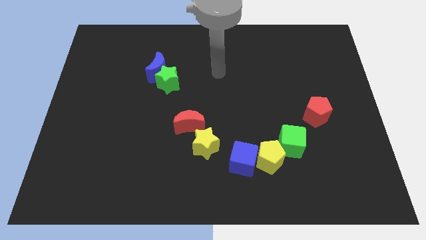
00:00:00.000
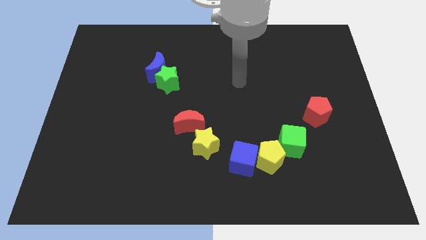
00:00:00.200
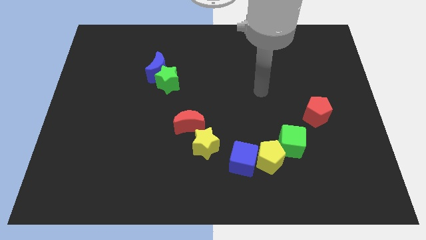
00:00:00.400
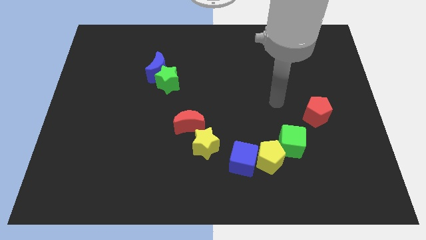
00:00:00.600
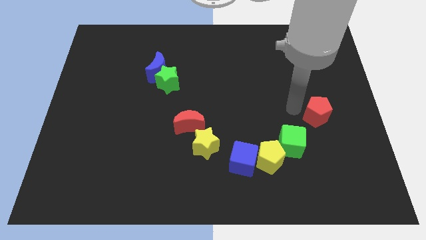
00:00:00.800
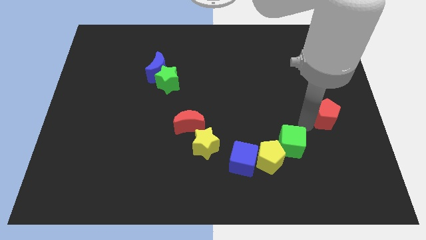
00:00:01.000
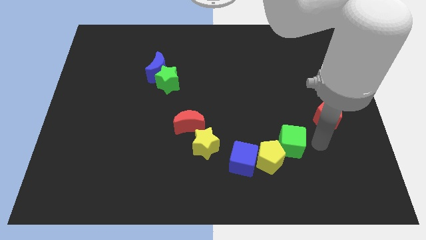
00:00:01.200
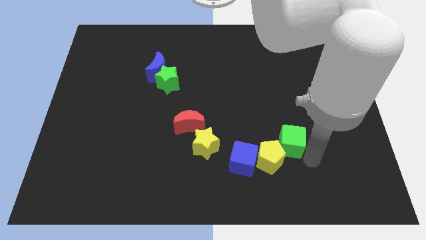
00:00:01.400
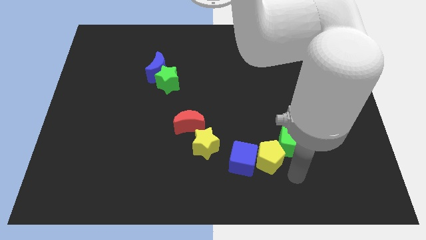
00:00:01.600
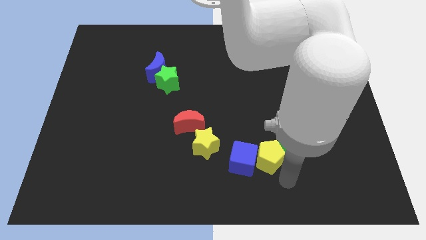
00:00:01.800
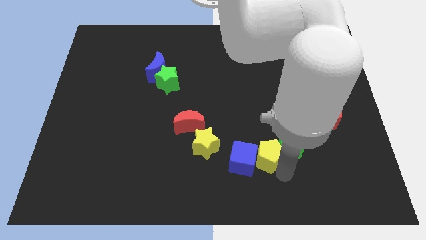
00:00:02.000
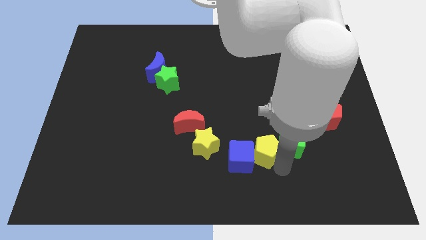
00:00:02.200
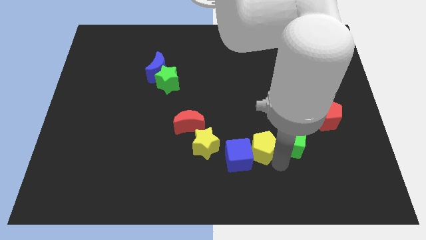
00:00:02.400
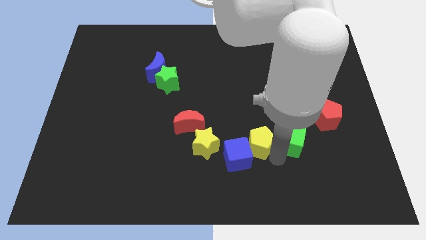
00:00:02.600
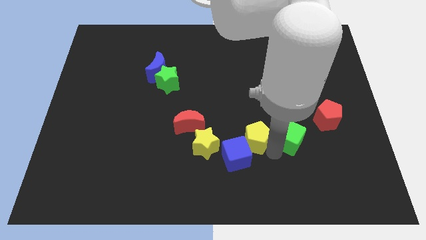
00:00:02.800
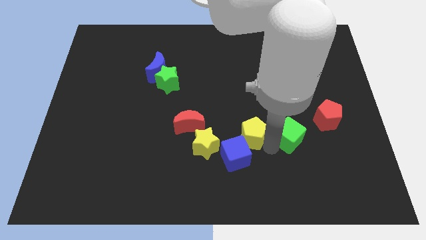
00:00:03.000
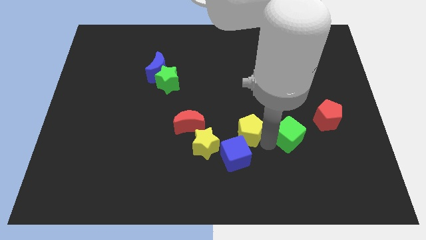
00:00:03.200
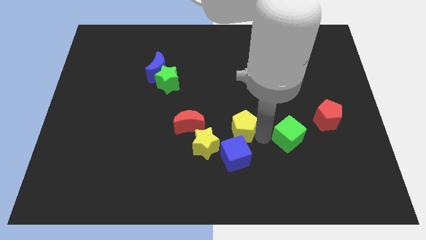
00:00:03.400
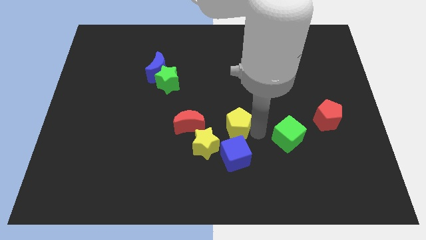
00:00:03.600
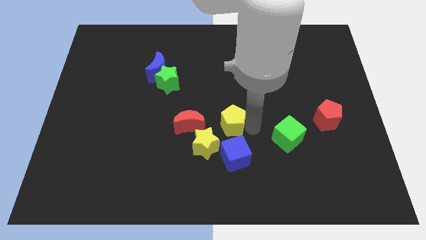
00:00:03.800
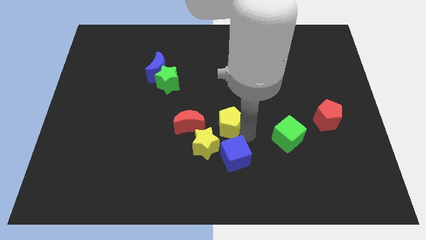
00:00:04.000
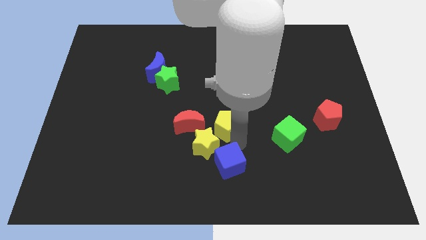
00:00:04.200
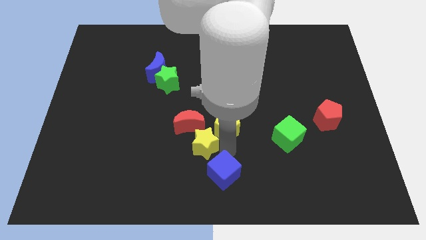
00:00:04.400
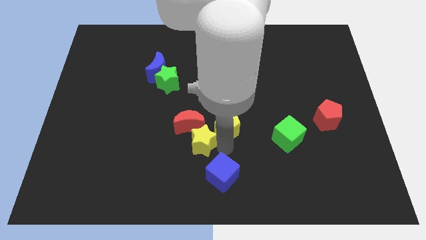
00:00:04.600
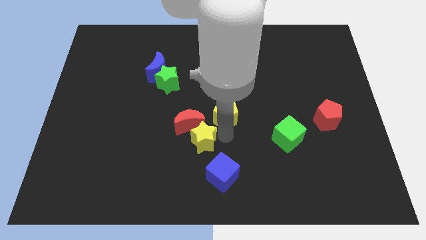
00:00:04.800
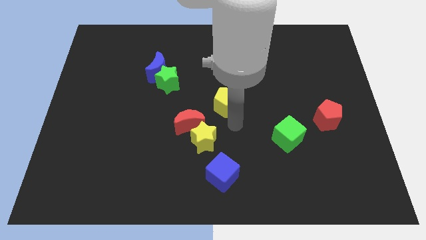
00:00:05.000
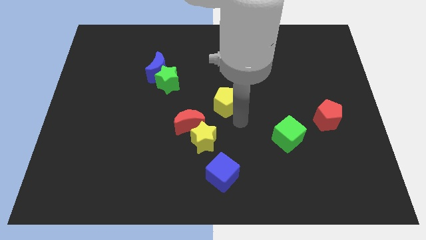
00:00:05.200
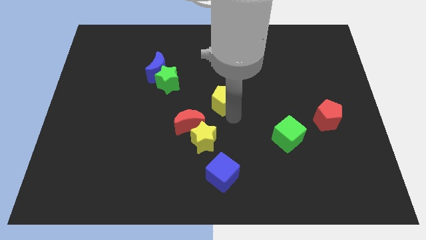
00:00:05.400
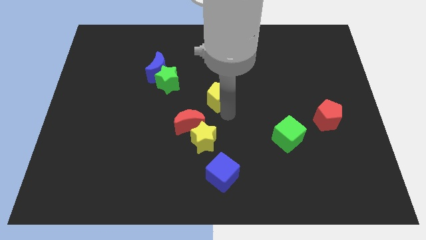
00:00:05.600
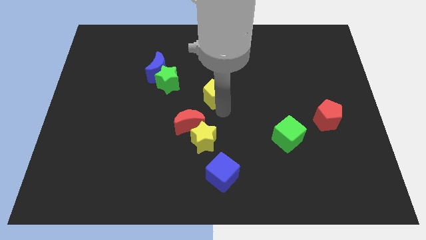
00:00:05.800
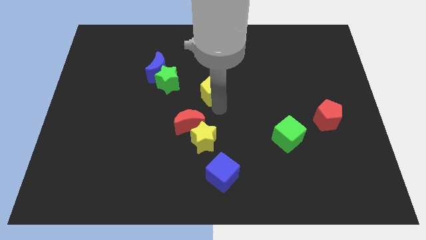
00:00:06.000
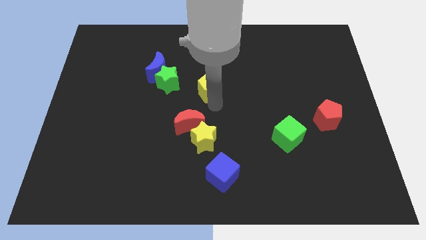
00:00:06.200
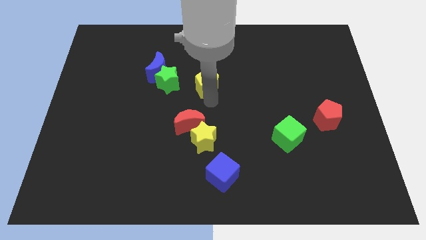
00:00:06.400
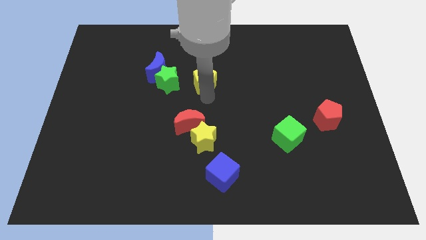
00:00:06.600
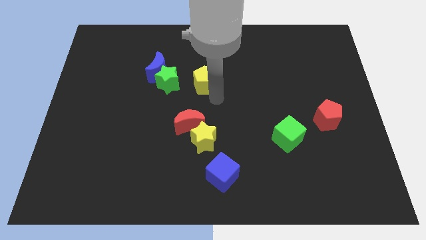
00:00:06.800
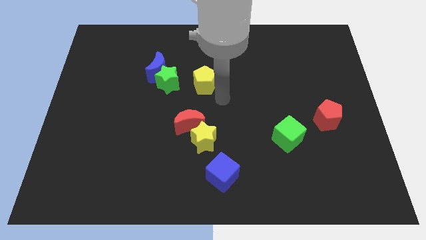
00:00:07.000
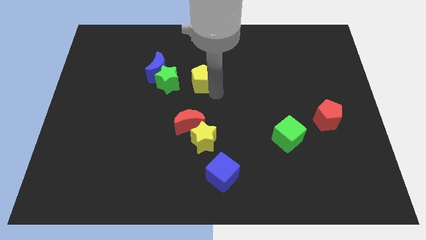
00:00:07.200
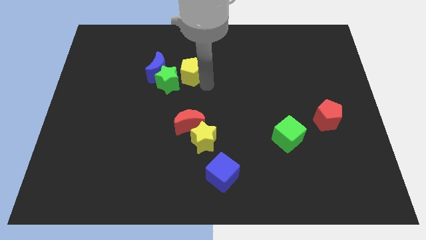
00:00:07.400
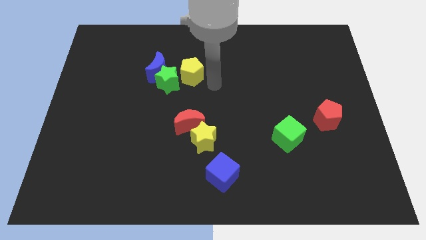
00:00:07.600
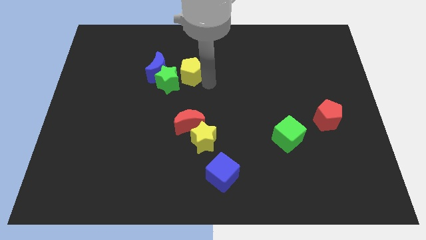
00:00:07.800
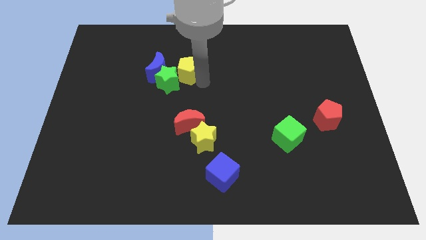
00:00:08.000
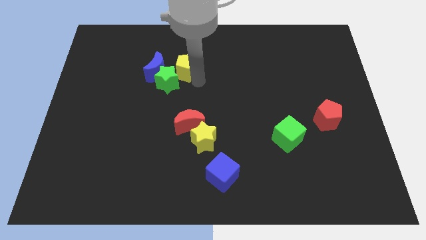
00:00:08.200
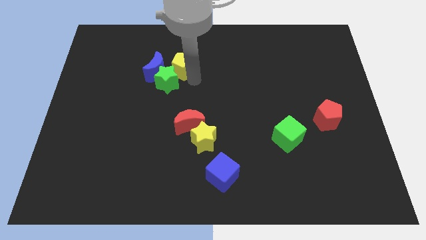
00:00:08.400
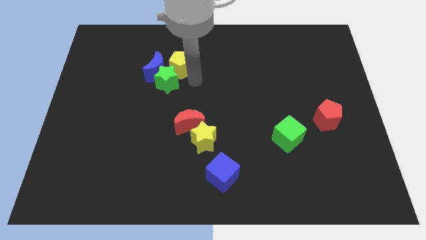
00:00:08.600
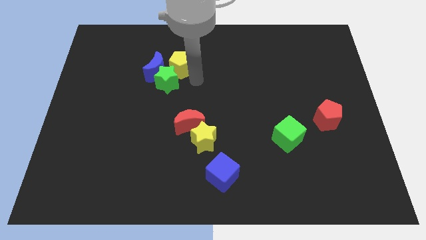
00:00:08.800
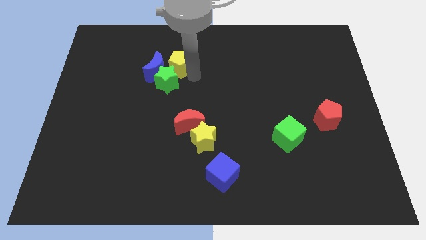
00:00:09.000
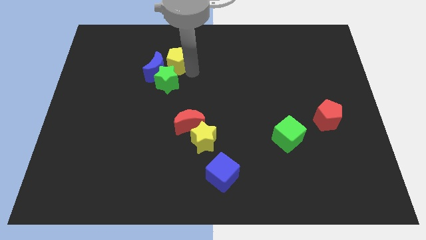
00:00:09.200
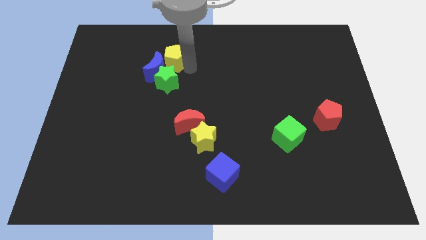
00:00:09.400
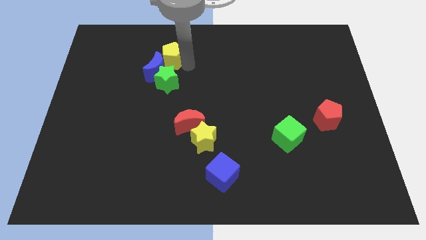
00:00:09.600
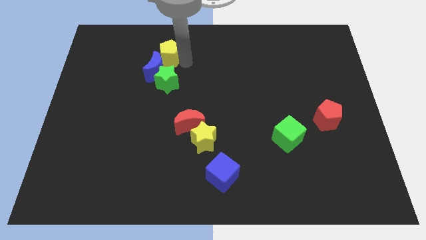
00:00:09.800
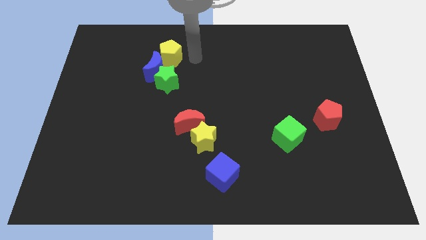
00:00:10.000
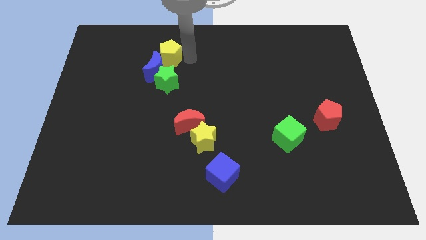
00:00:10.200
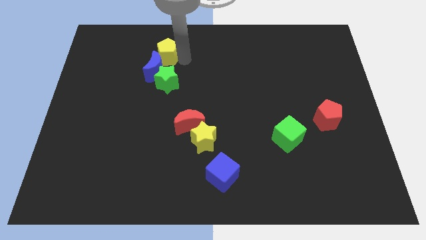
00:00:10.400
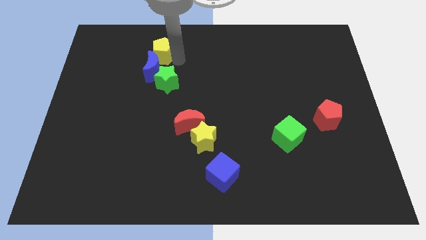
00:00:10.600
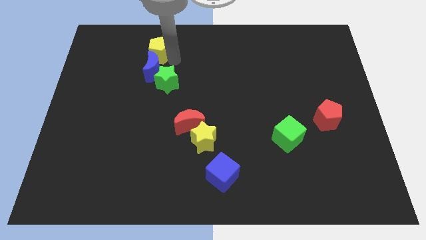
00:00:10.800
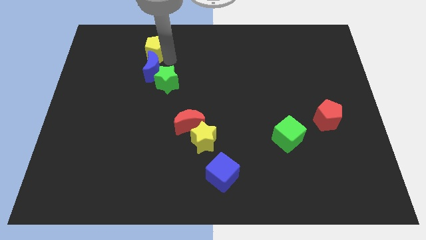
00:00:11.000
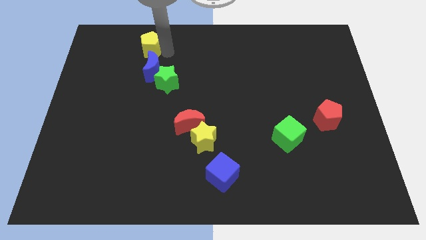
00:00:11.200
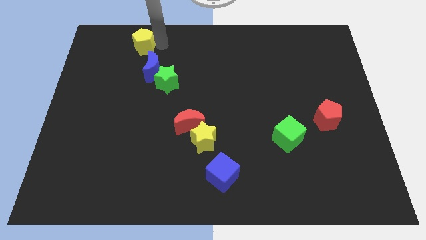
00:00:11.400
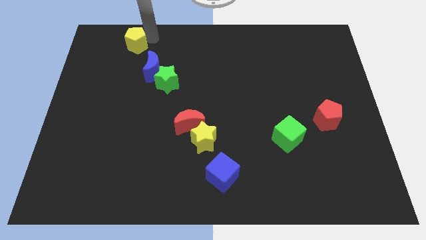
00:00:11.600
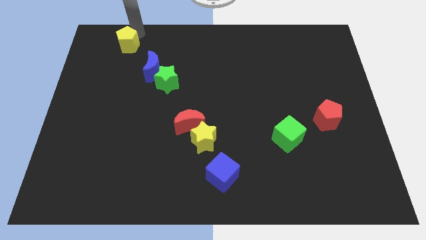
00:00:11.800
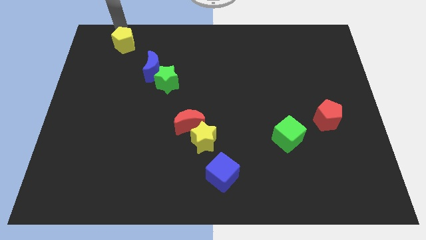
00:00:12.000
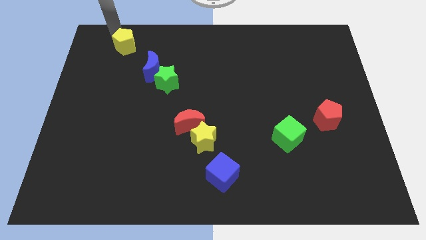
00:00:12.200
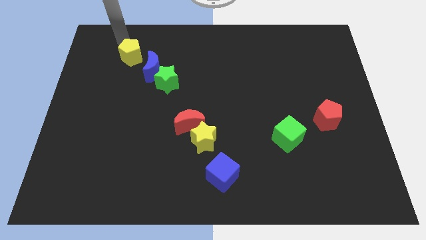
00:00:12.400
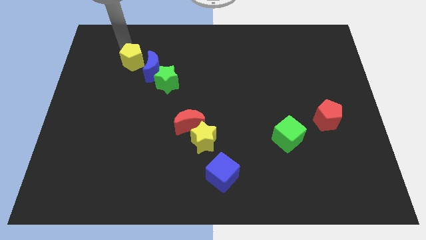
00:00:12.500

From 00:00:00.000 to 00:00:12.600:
slide the yellow pentagon to the top left of the green star

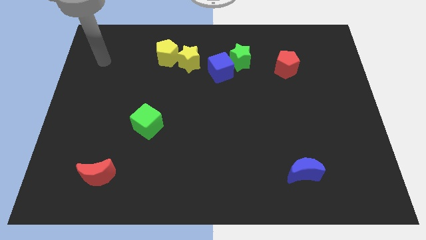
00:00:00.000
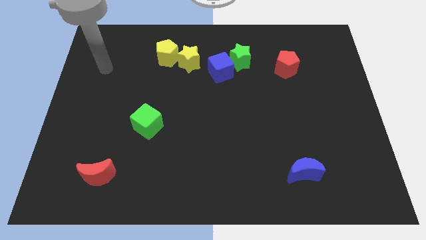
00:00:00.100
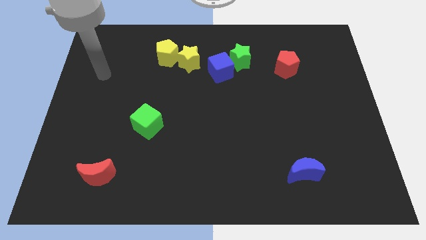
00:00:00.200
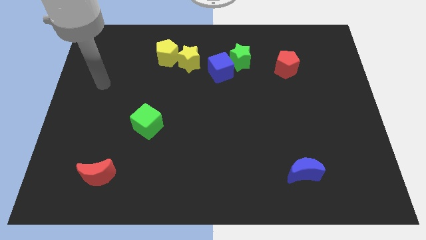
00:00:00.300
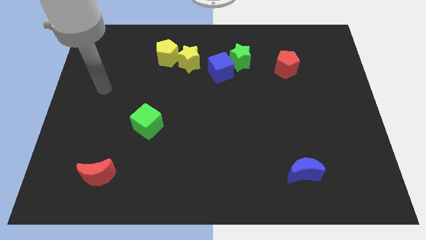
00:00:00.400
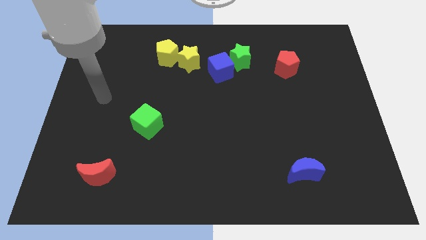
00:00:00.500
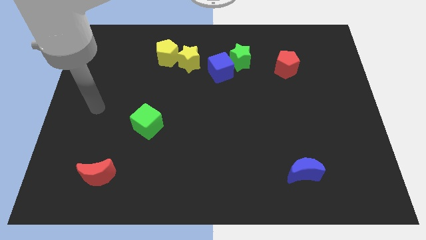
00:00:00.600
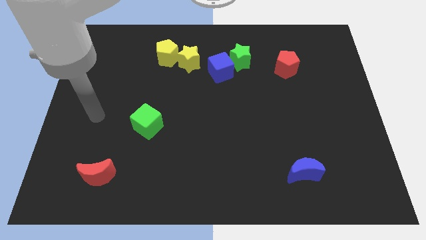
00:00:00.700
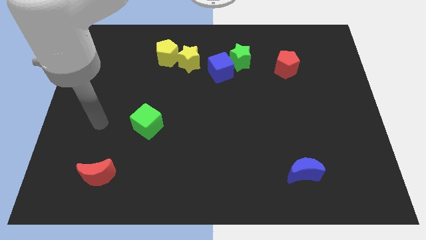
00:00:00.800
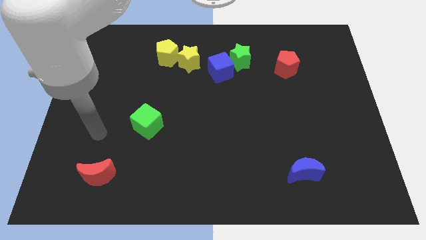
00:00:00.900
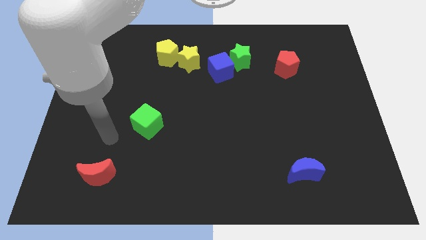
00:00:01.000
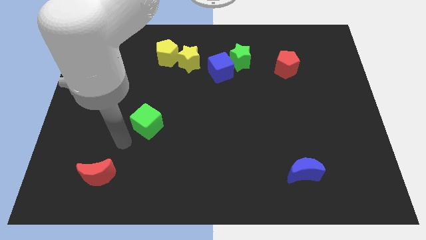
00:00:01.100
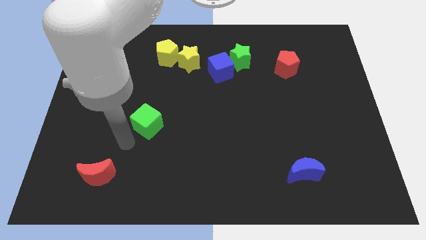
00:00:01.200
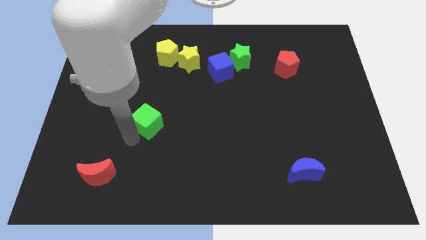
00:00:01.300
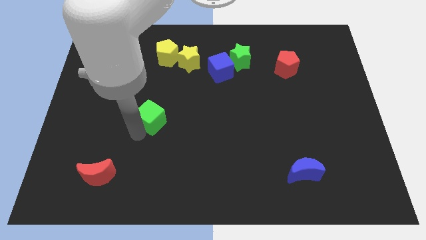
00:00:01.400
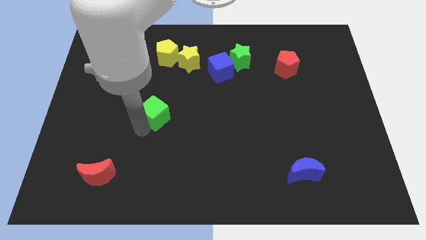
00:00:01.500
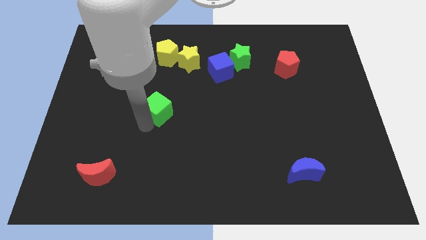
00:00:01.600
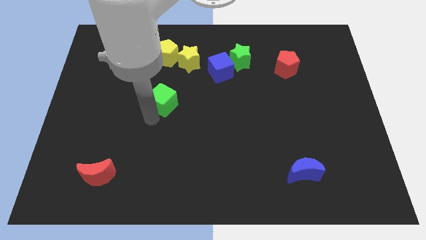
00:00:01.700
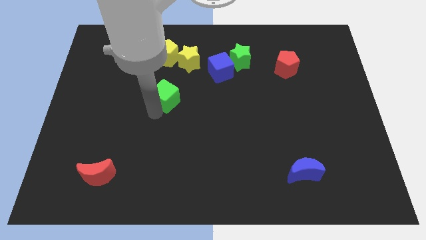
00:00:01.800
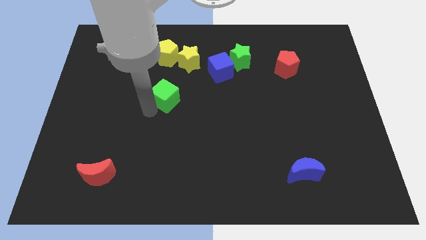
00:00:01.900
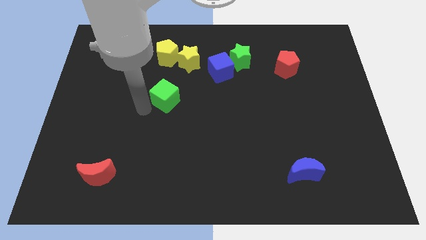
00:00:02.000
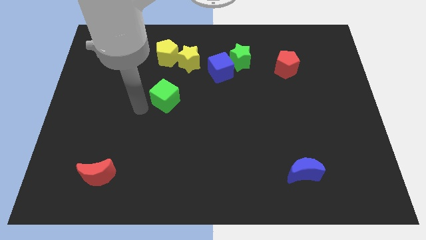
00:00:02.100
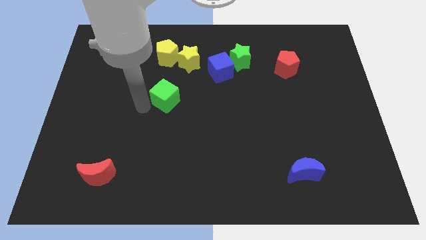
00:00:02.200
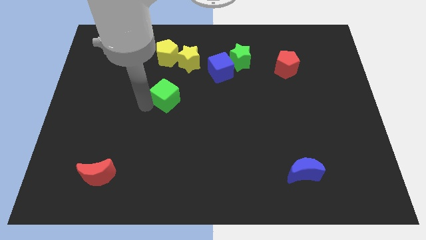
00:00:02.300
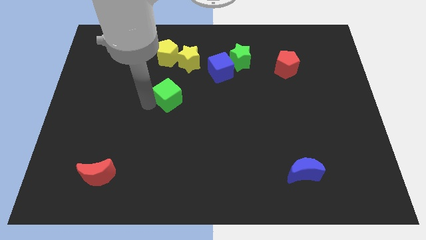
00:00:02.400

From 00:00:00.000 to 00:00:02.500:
push the green cube to the bottom side of the yellow star
